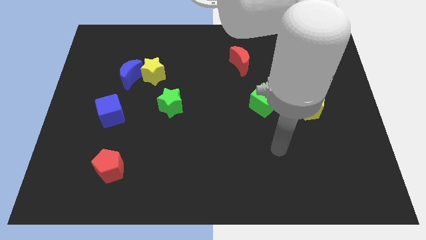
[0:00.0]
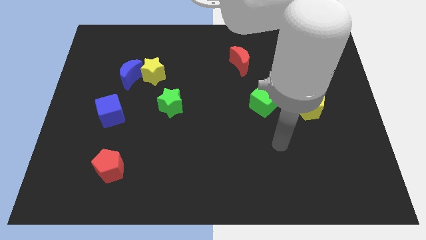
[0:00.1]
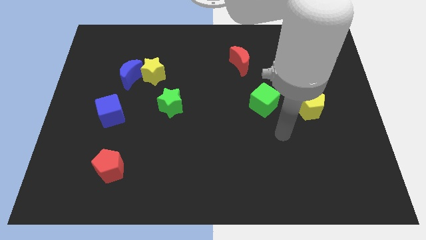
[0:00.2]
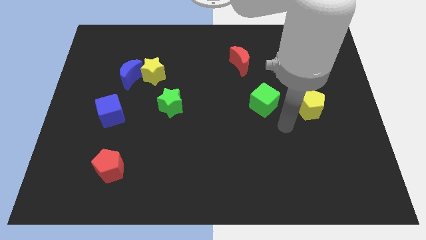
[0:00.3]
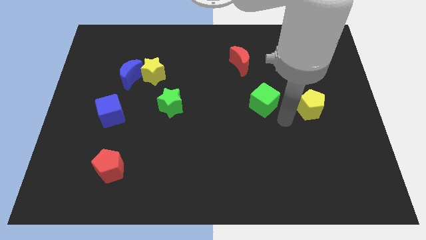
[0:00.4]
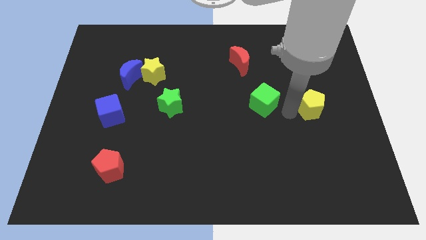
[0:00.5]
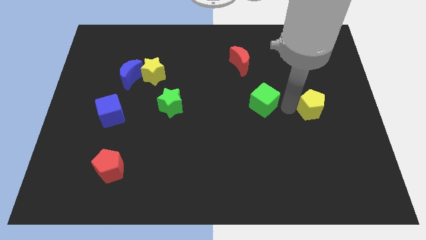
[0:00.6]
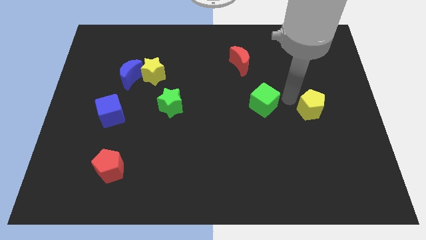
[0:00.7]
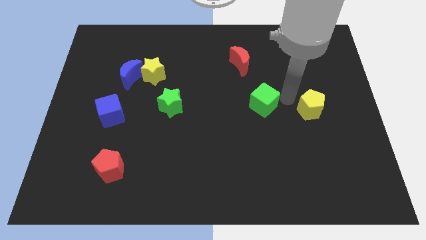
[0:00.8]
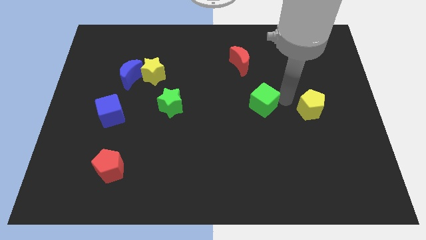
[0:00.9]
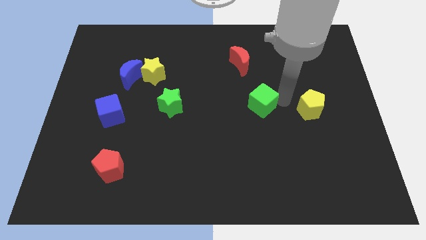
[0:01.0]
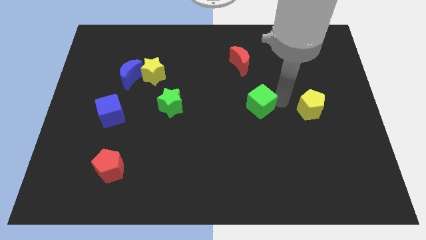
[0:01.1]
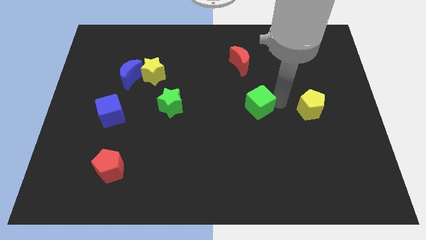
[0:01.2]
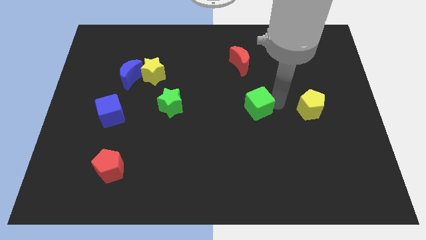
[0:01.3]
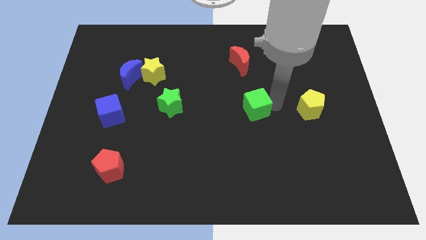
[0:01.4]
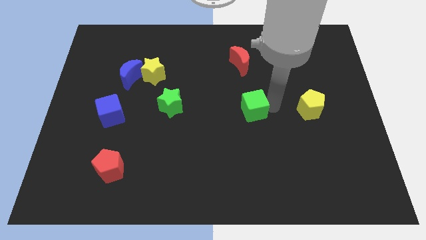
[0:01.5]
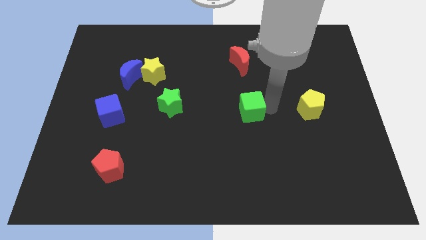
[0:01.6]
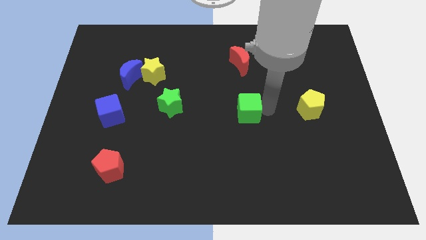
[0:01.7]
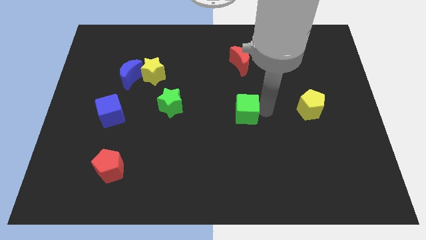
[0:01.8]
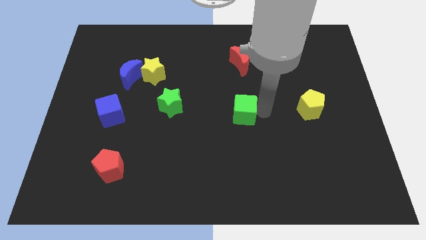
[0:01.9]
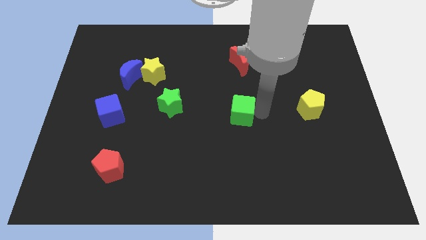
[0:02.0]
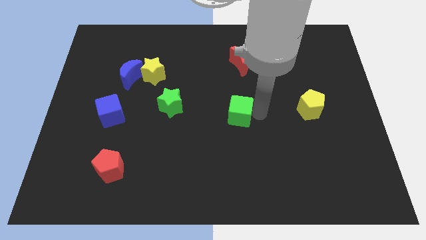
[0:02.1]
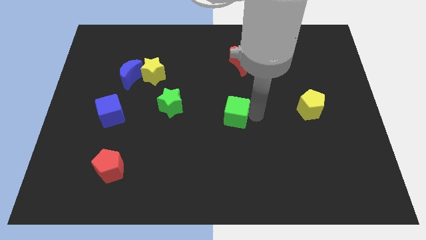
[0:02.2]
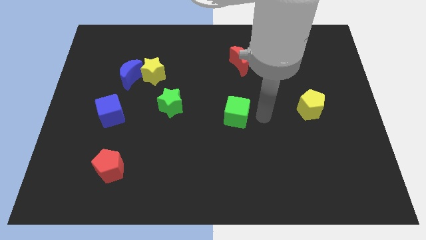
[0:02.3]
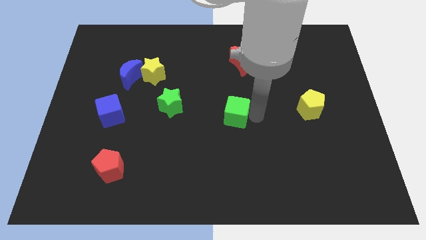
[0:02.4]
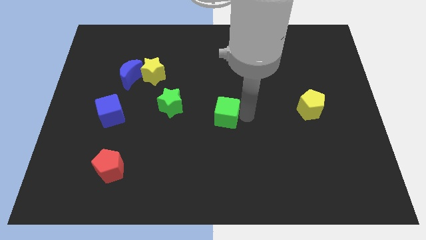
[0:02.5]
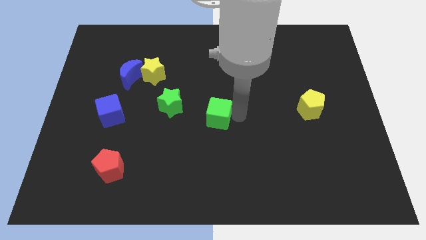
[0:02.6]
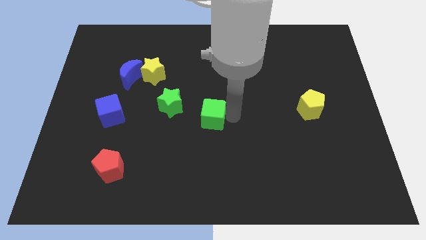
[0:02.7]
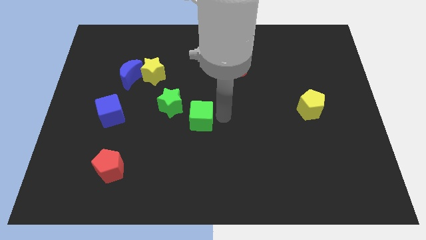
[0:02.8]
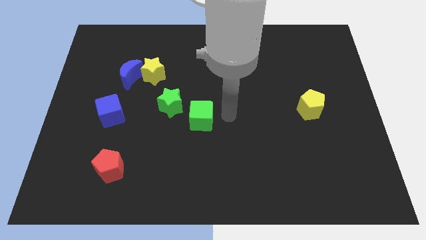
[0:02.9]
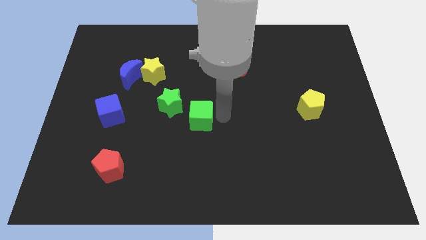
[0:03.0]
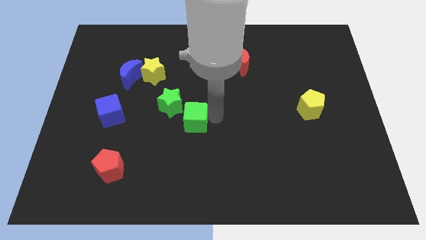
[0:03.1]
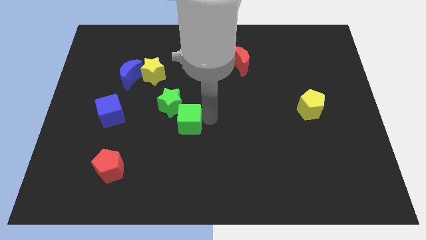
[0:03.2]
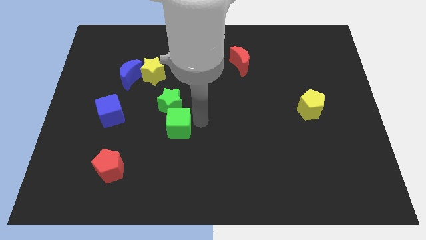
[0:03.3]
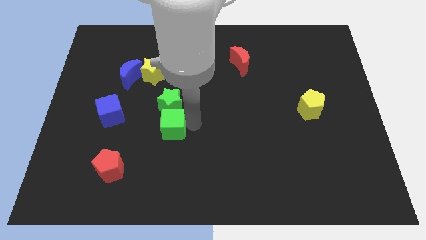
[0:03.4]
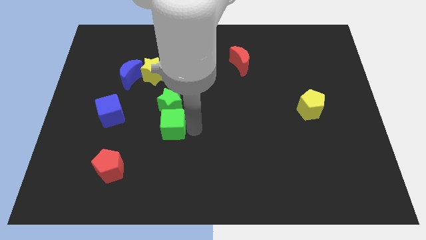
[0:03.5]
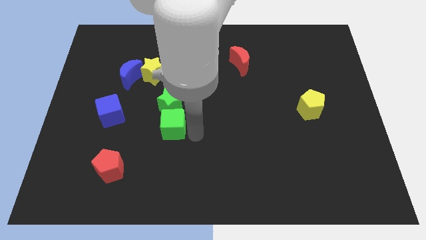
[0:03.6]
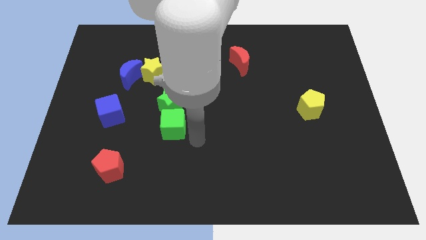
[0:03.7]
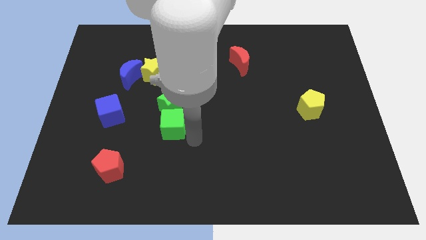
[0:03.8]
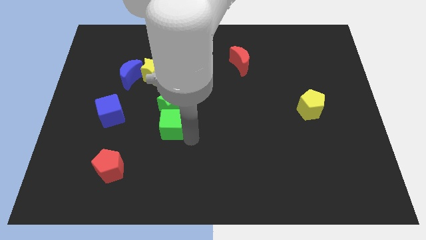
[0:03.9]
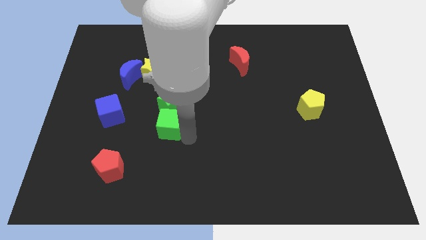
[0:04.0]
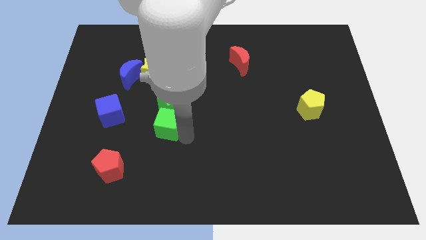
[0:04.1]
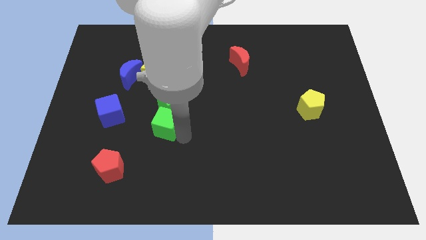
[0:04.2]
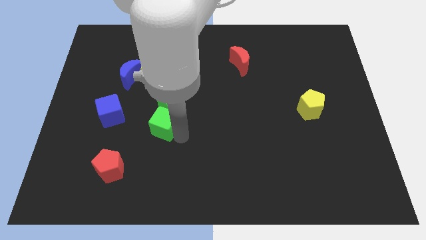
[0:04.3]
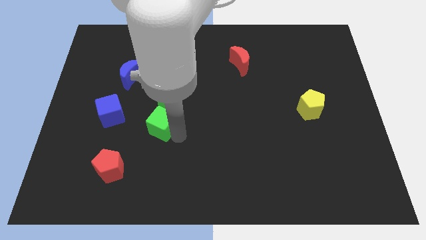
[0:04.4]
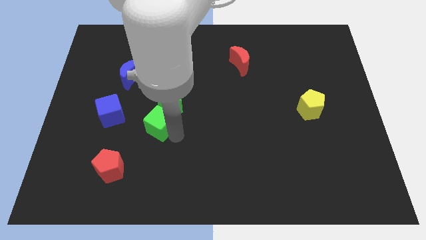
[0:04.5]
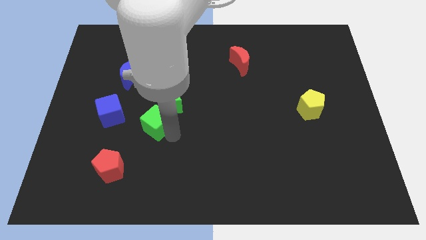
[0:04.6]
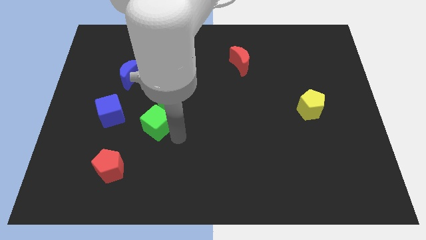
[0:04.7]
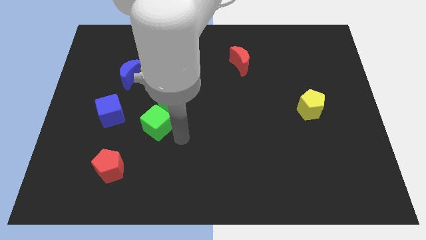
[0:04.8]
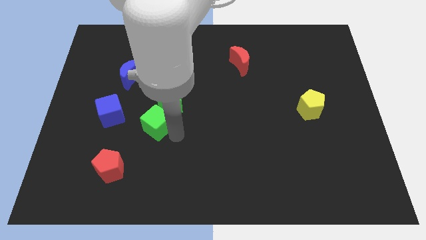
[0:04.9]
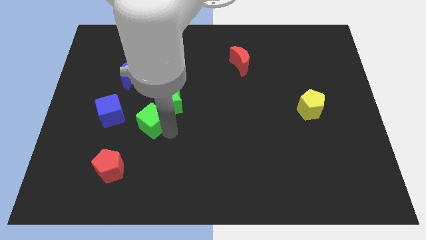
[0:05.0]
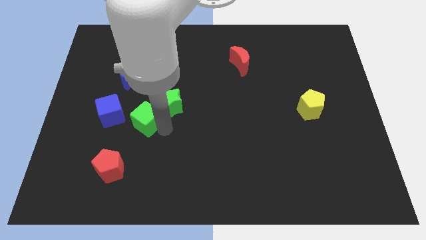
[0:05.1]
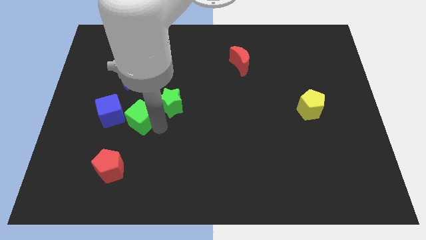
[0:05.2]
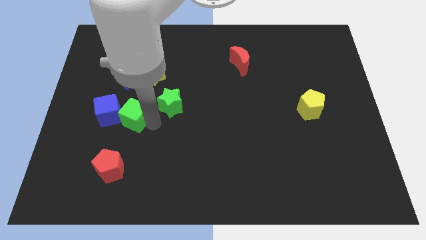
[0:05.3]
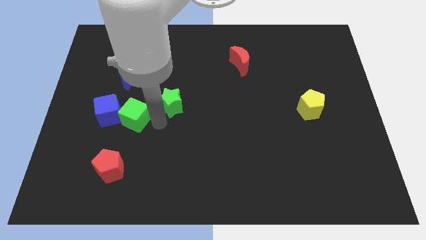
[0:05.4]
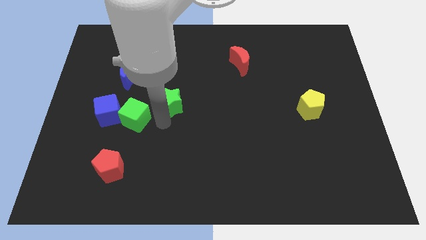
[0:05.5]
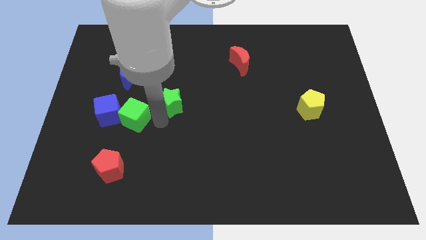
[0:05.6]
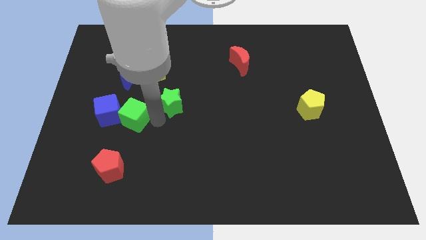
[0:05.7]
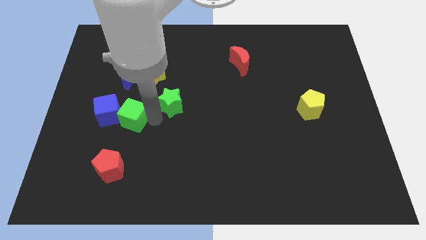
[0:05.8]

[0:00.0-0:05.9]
put the green cube next to the blue cube
